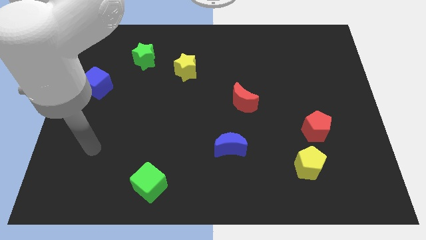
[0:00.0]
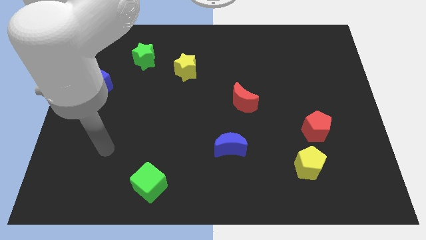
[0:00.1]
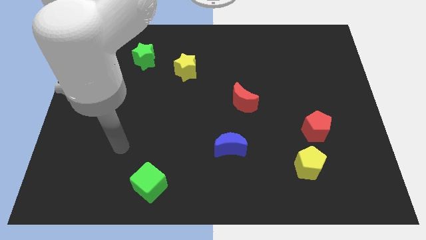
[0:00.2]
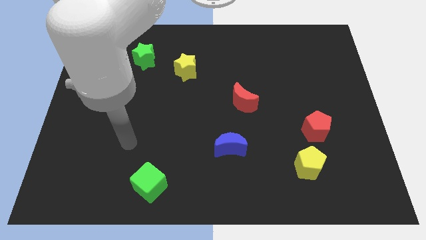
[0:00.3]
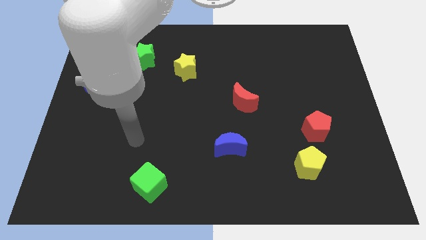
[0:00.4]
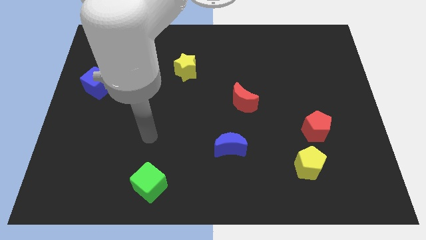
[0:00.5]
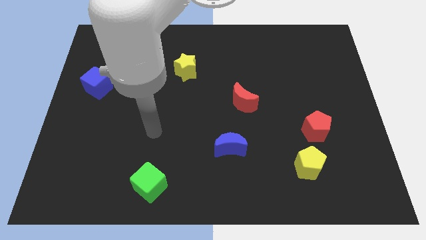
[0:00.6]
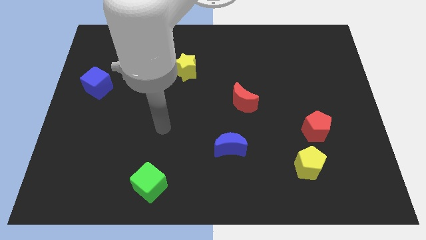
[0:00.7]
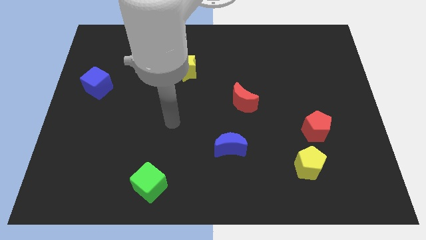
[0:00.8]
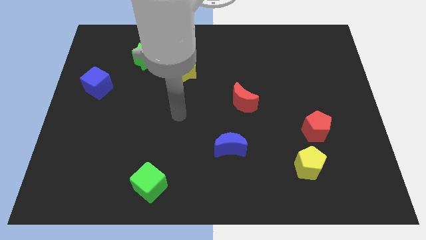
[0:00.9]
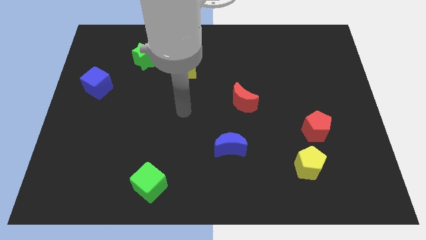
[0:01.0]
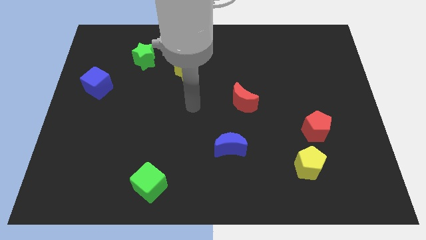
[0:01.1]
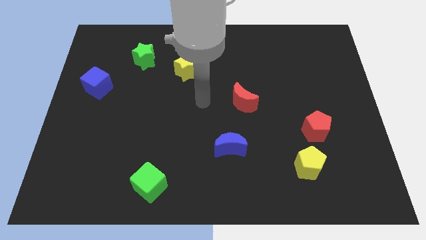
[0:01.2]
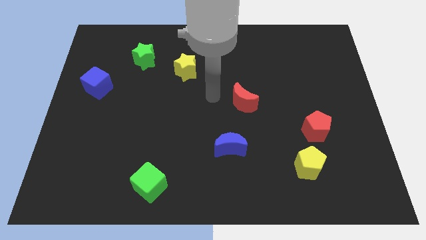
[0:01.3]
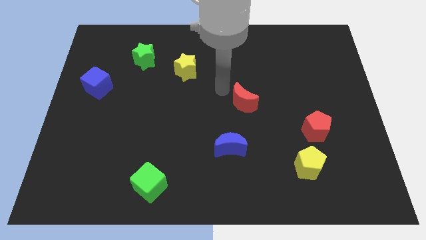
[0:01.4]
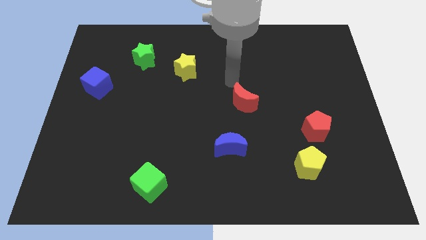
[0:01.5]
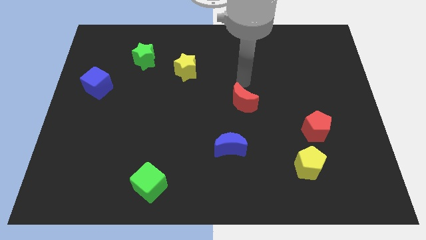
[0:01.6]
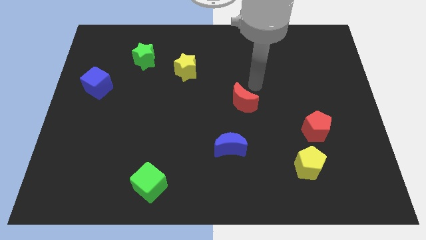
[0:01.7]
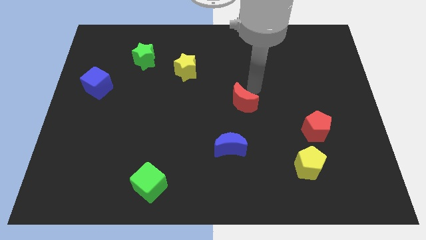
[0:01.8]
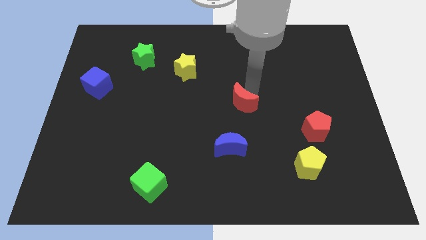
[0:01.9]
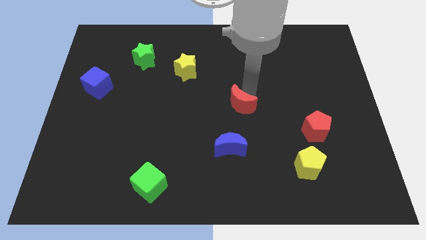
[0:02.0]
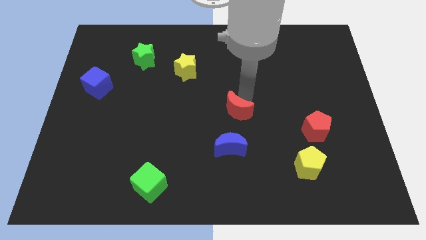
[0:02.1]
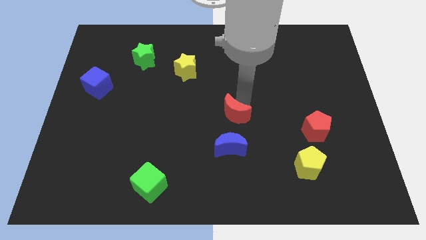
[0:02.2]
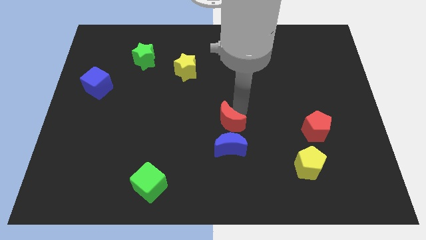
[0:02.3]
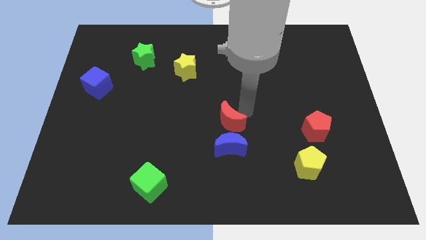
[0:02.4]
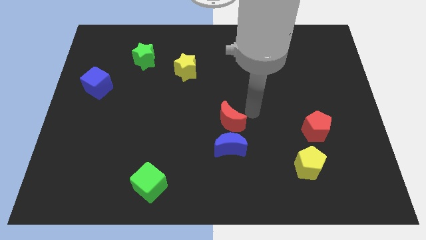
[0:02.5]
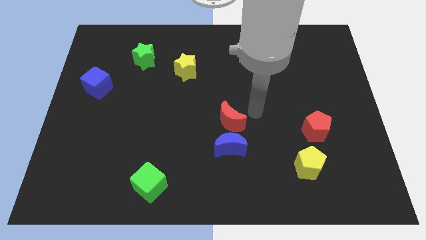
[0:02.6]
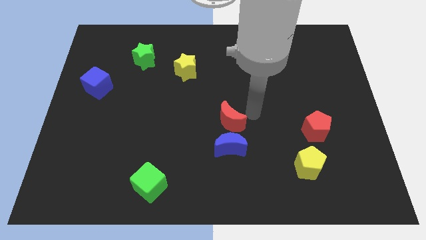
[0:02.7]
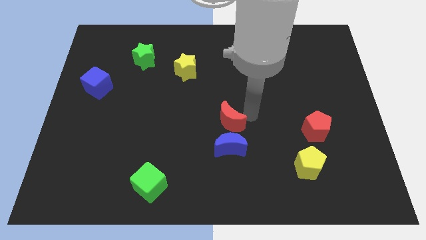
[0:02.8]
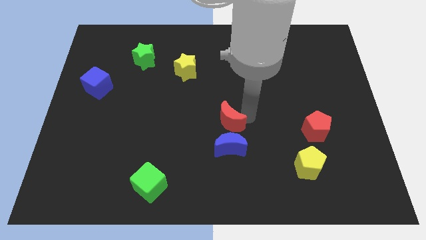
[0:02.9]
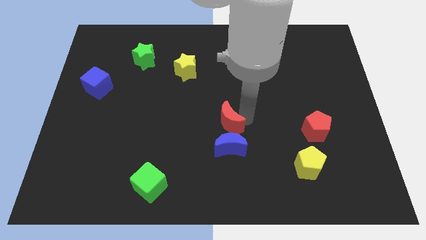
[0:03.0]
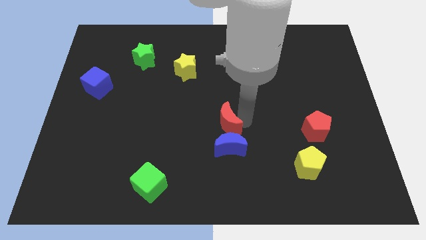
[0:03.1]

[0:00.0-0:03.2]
slightly slide the red moon diagonally downwards and left

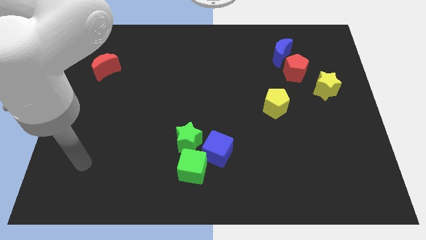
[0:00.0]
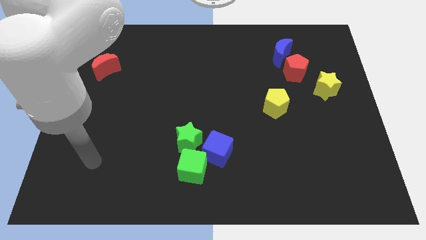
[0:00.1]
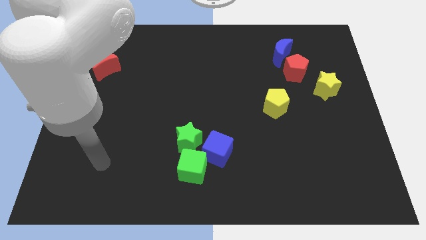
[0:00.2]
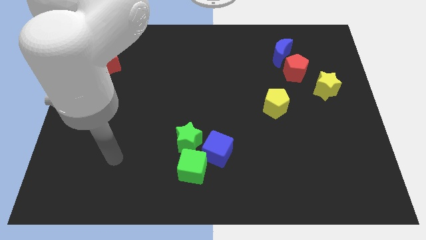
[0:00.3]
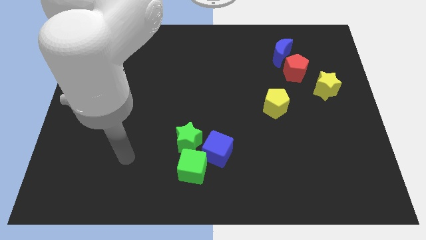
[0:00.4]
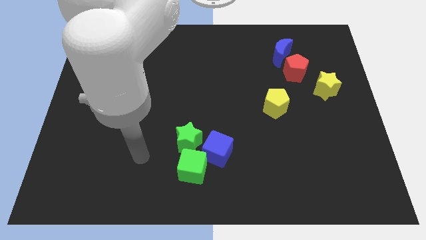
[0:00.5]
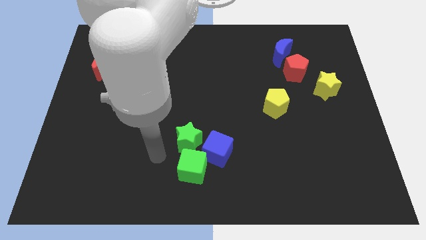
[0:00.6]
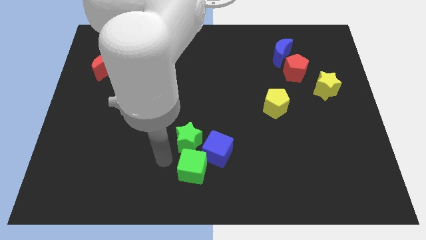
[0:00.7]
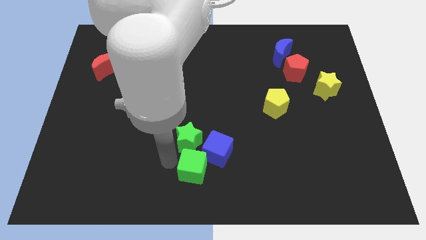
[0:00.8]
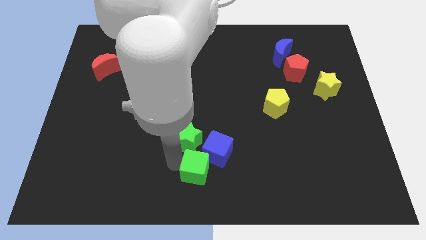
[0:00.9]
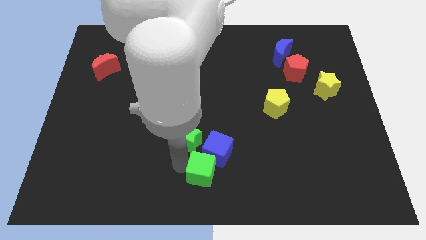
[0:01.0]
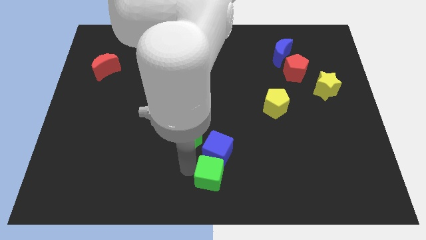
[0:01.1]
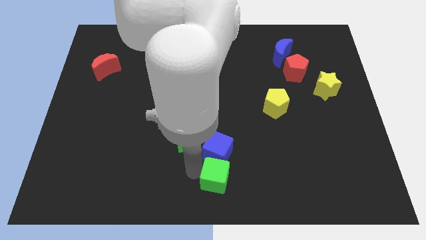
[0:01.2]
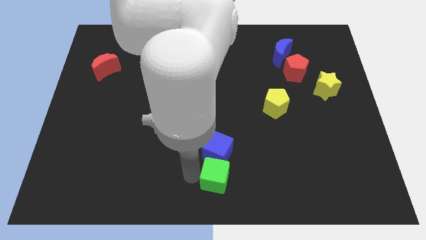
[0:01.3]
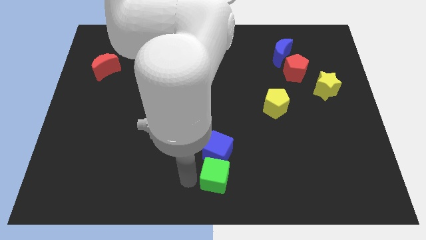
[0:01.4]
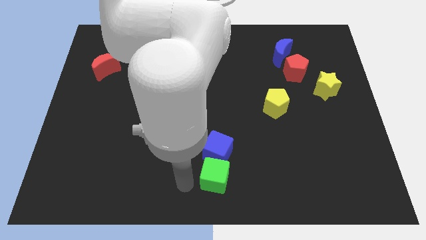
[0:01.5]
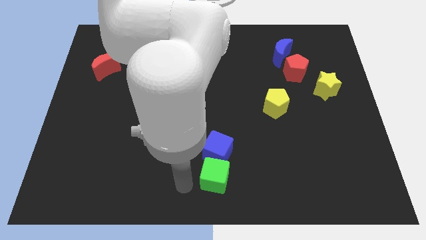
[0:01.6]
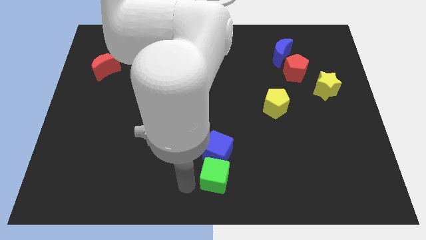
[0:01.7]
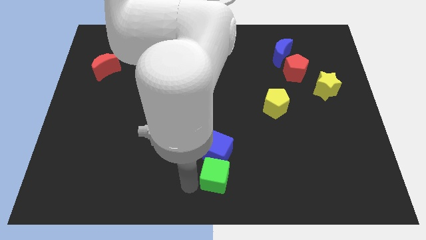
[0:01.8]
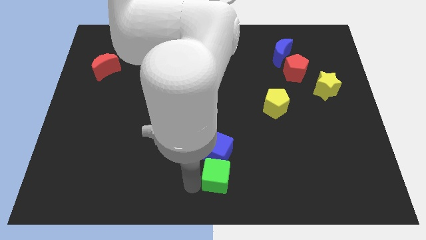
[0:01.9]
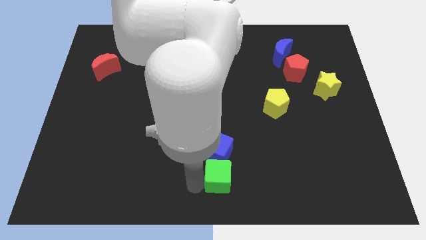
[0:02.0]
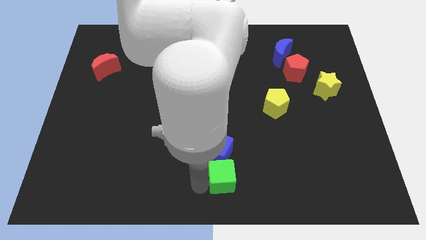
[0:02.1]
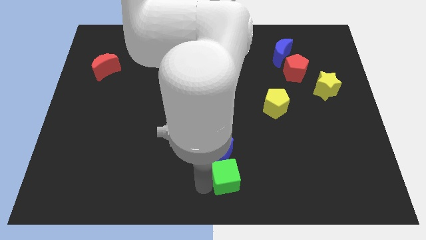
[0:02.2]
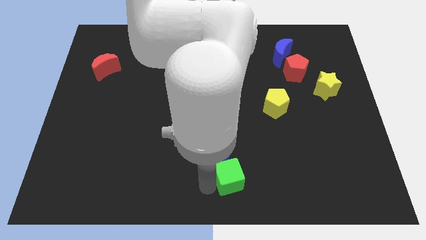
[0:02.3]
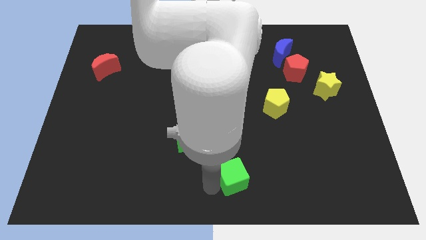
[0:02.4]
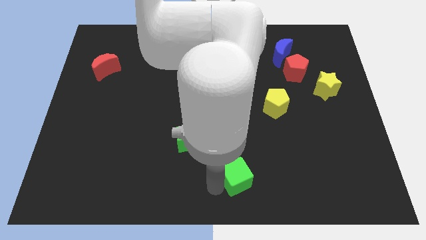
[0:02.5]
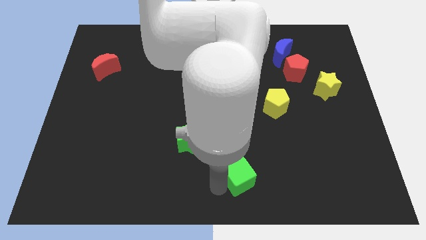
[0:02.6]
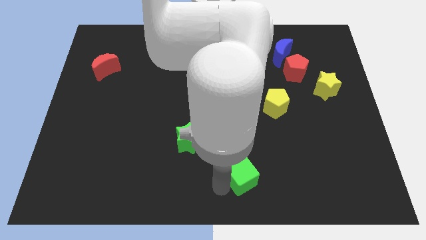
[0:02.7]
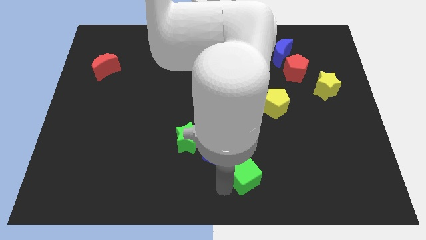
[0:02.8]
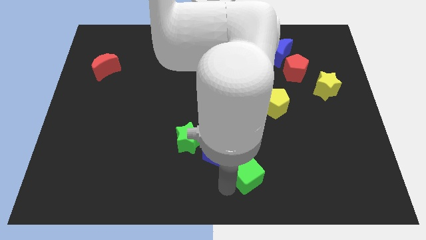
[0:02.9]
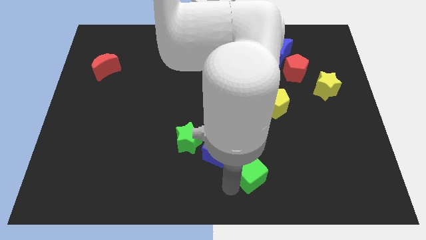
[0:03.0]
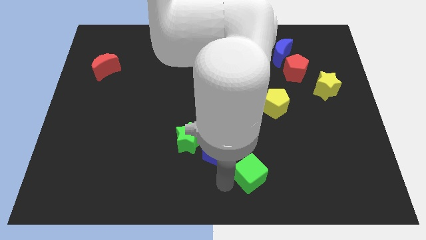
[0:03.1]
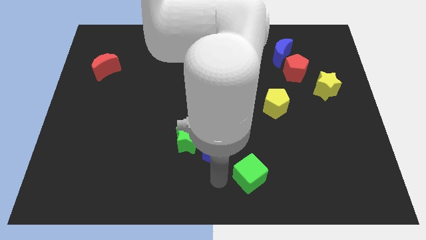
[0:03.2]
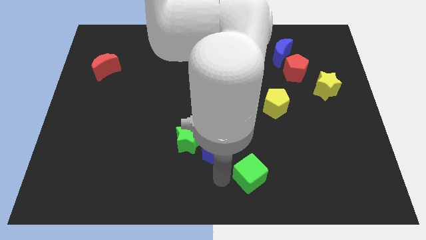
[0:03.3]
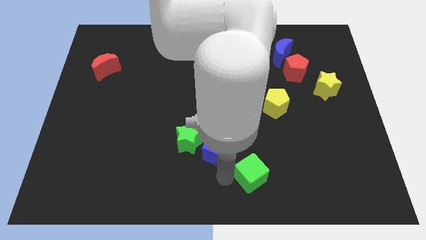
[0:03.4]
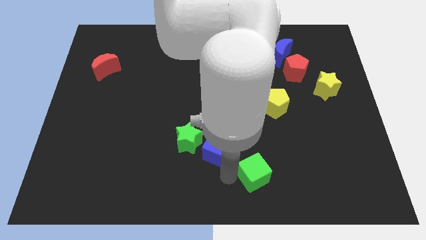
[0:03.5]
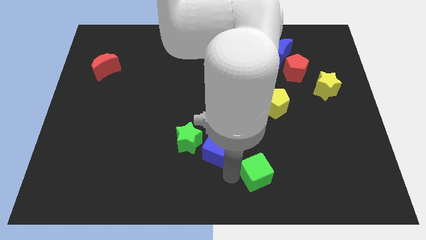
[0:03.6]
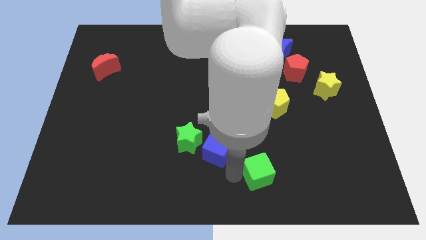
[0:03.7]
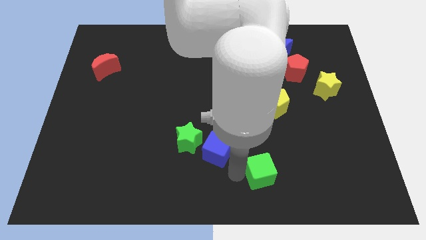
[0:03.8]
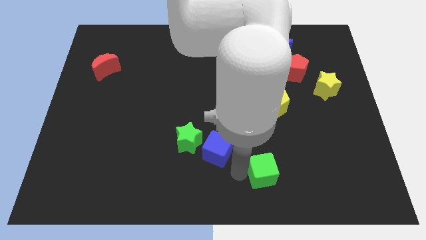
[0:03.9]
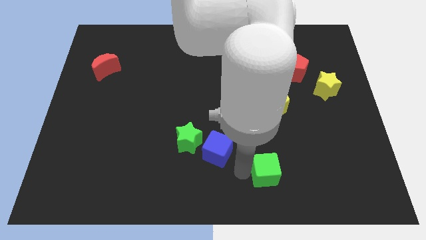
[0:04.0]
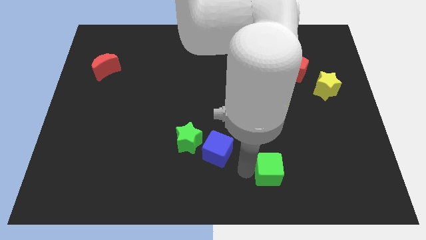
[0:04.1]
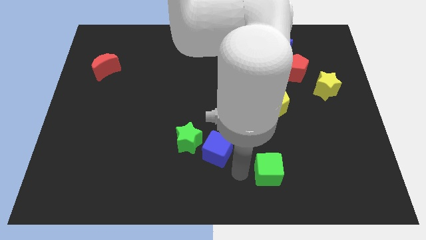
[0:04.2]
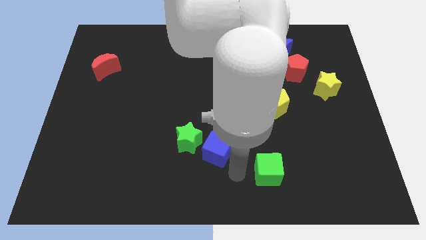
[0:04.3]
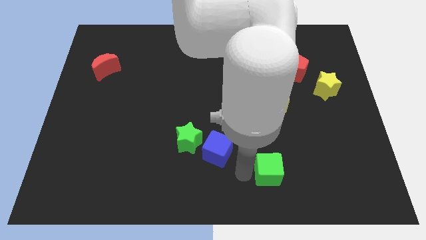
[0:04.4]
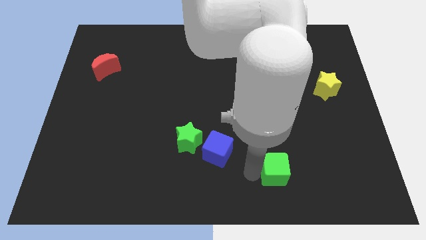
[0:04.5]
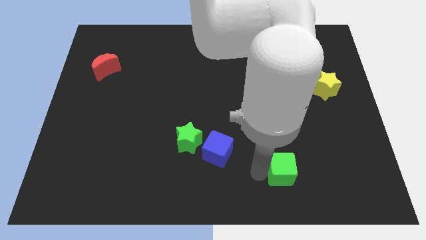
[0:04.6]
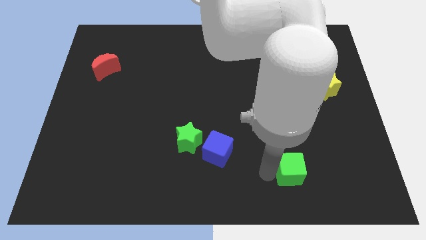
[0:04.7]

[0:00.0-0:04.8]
push the green cube to the right

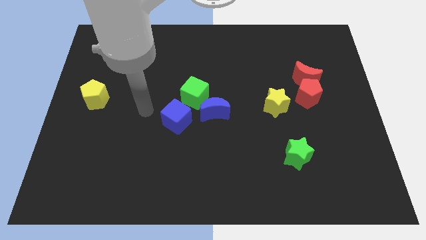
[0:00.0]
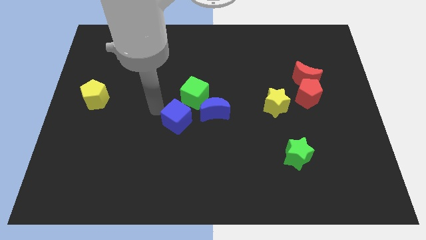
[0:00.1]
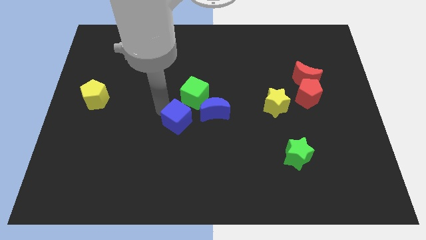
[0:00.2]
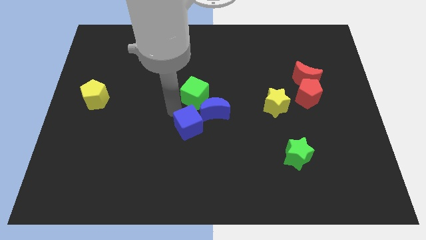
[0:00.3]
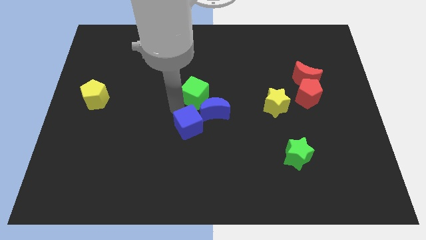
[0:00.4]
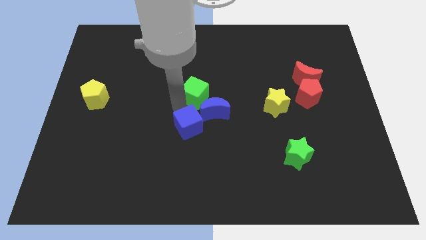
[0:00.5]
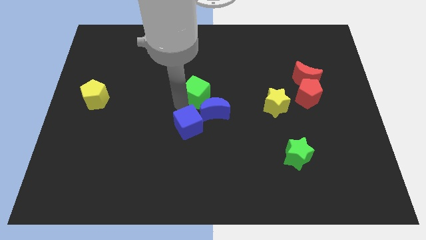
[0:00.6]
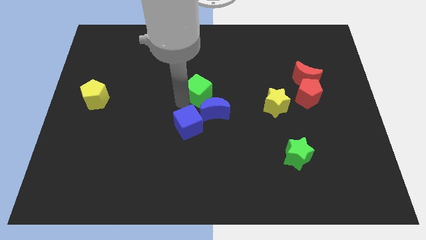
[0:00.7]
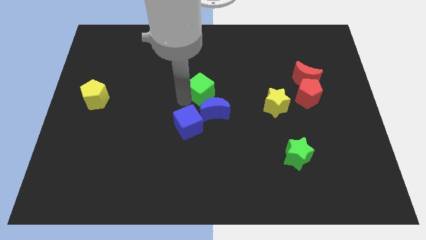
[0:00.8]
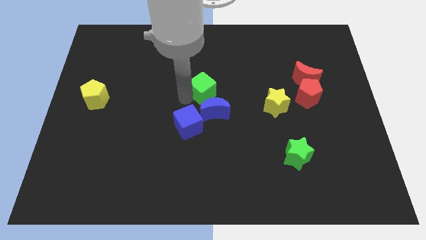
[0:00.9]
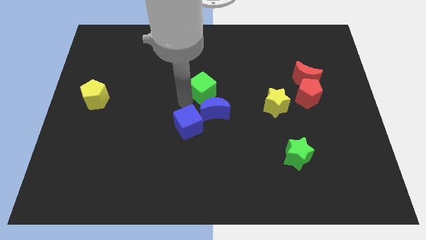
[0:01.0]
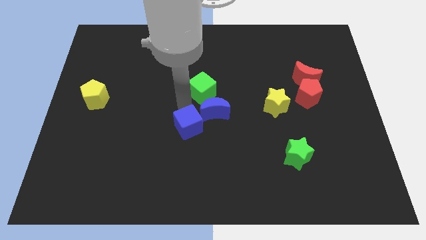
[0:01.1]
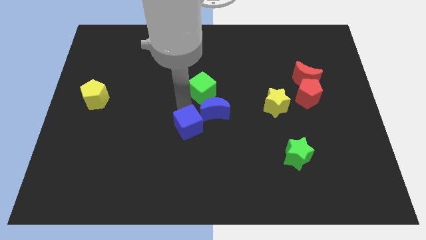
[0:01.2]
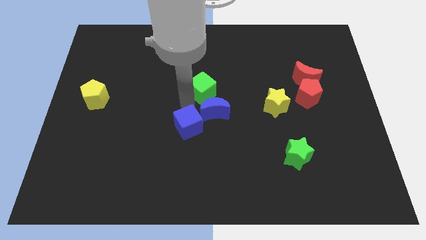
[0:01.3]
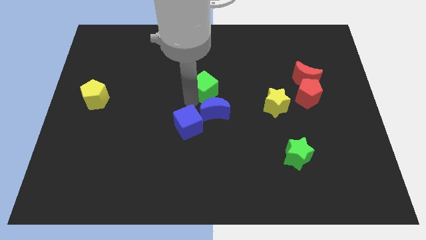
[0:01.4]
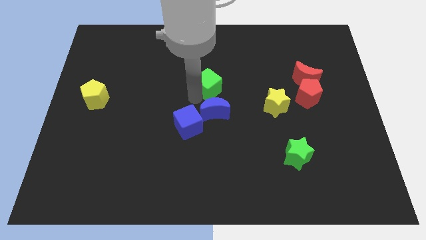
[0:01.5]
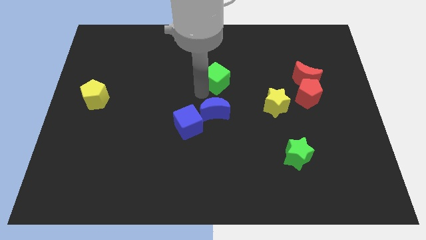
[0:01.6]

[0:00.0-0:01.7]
push the green cube slightly up and to the right diagonally
